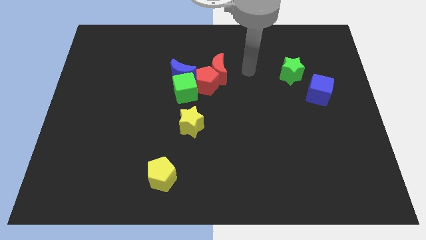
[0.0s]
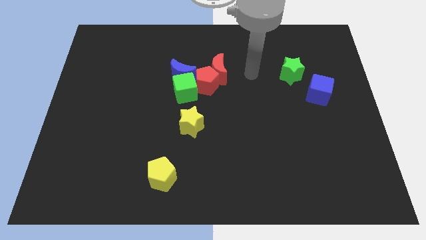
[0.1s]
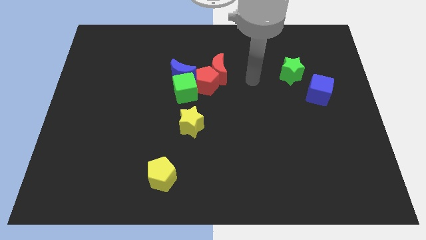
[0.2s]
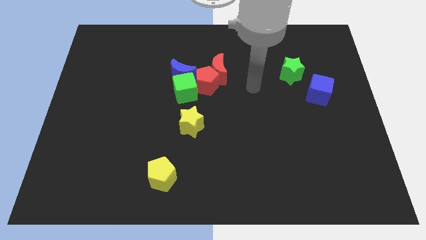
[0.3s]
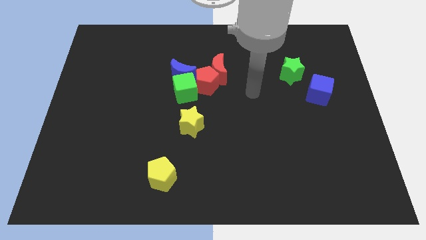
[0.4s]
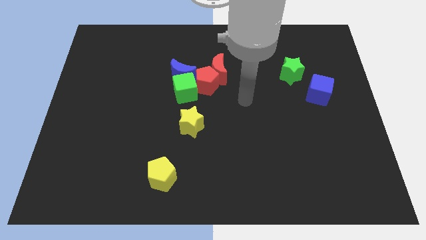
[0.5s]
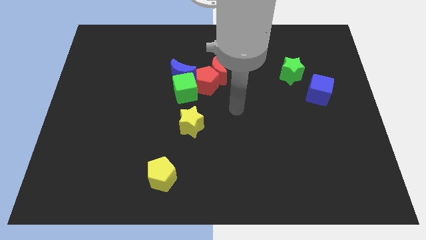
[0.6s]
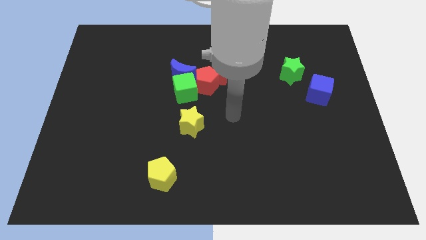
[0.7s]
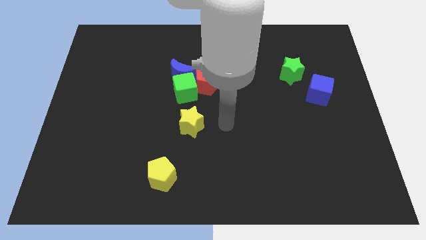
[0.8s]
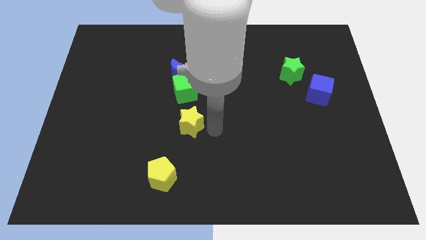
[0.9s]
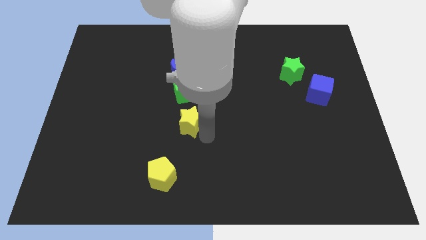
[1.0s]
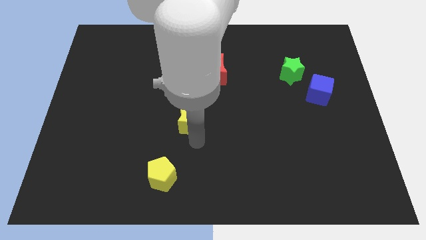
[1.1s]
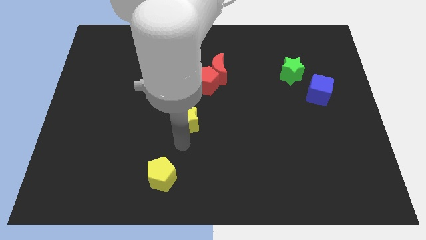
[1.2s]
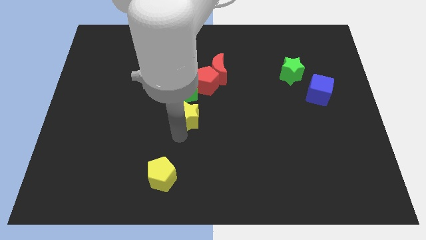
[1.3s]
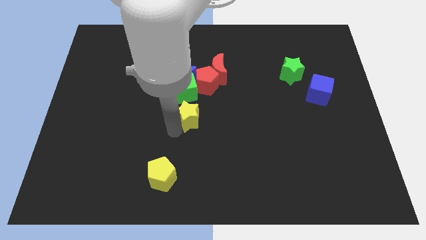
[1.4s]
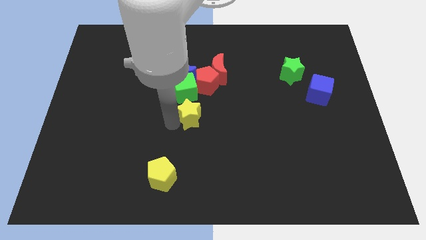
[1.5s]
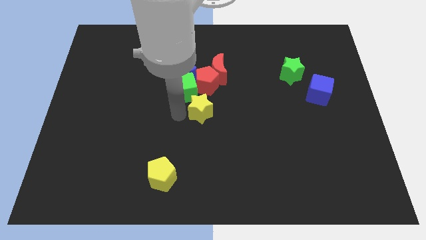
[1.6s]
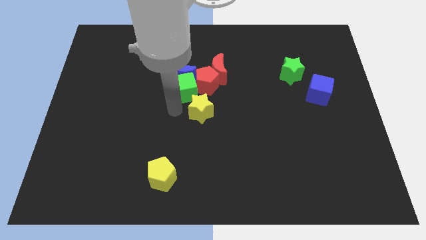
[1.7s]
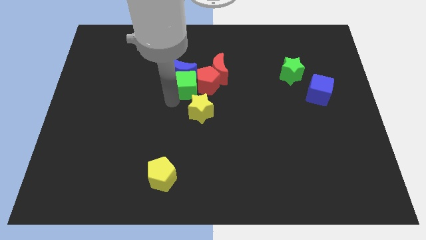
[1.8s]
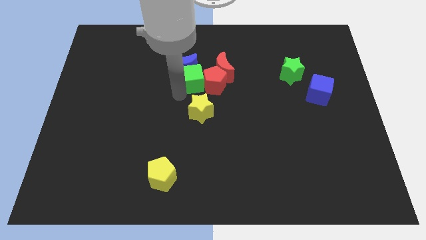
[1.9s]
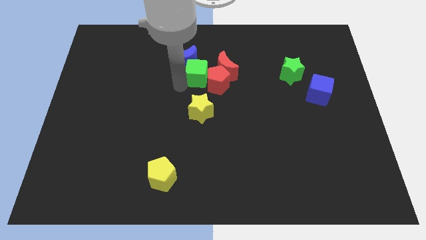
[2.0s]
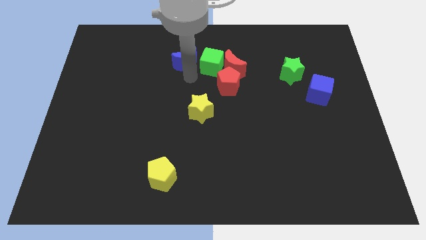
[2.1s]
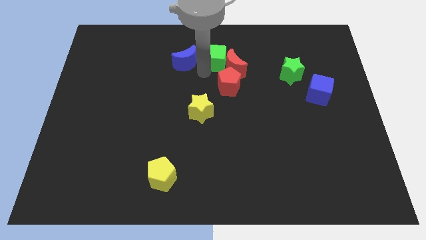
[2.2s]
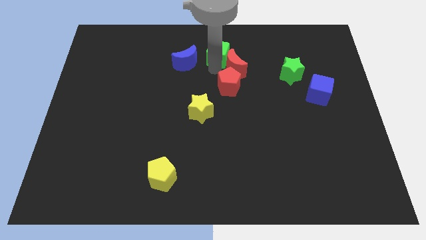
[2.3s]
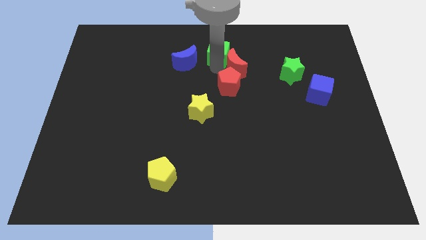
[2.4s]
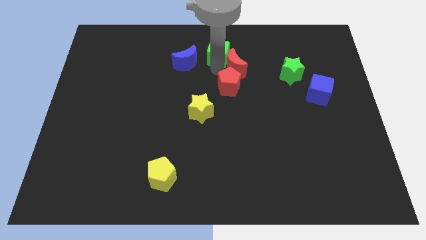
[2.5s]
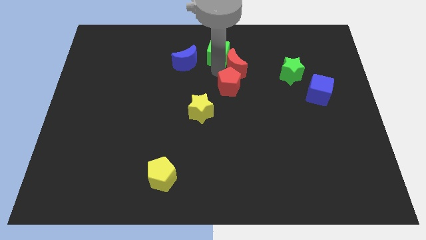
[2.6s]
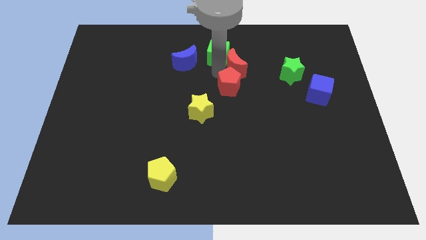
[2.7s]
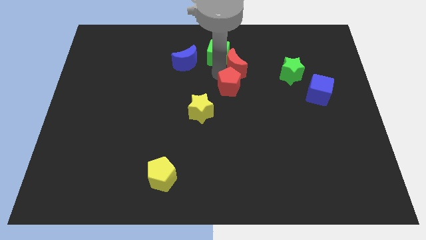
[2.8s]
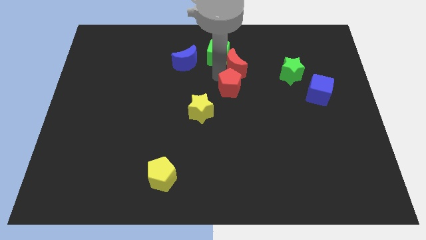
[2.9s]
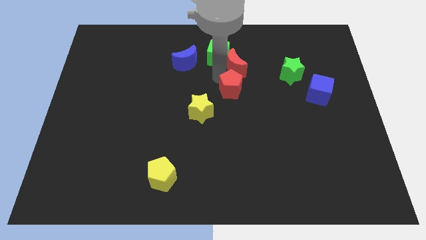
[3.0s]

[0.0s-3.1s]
pull the red pentagon apart from the red moon, green cube, and blue moon

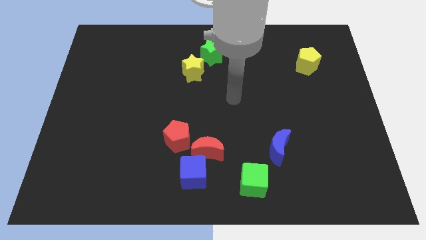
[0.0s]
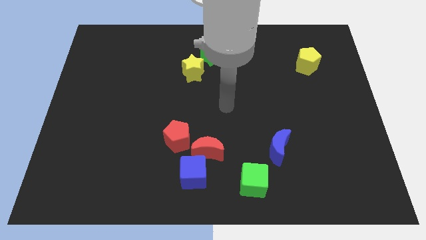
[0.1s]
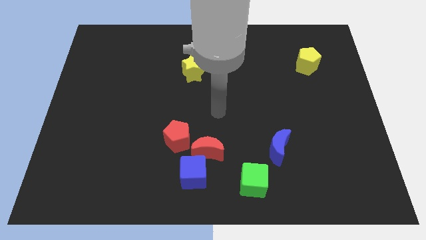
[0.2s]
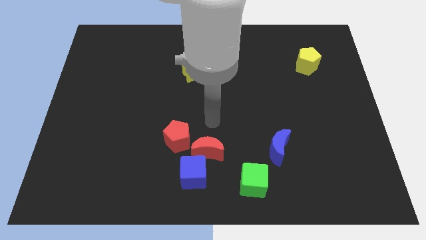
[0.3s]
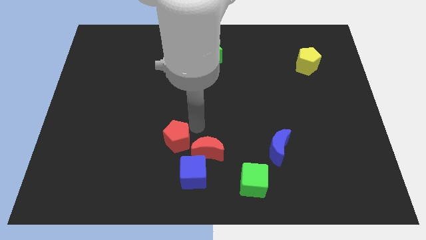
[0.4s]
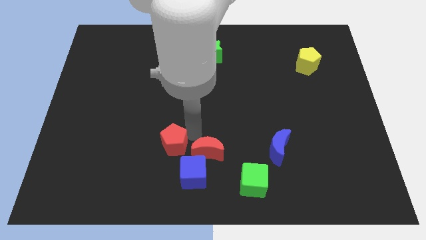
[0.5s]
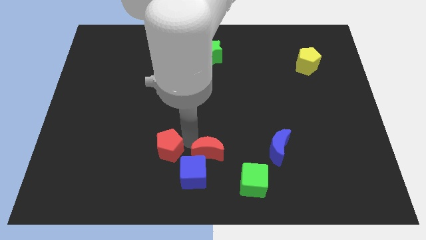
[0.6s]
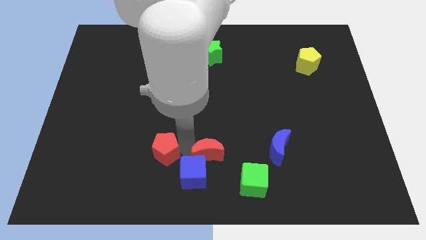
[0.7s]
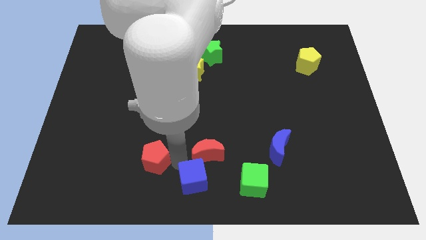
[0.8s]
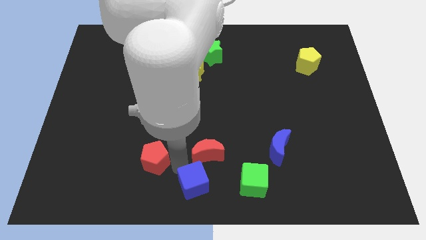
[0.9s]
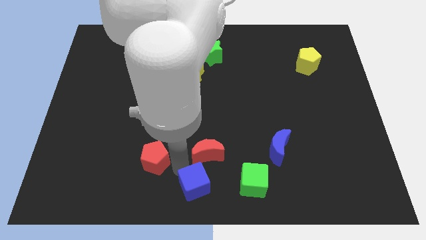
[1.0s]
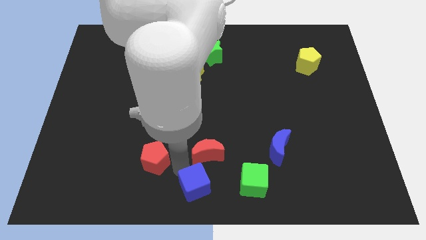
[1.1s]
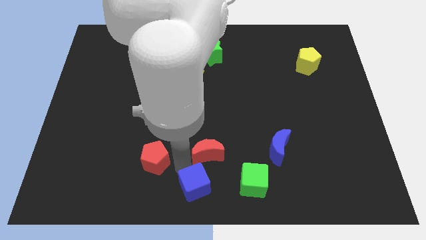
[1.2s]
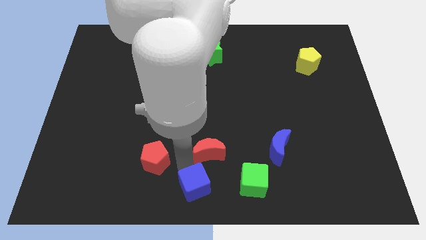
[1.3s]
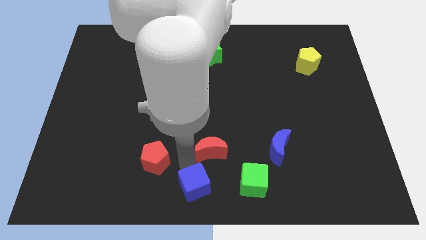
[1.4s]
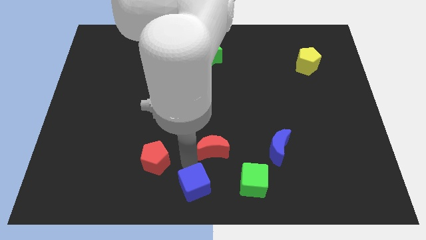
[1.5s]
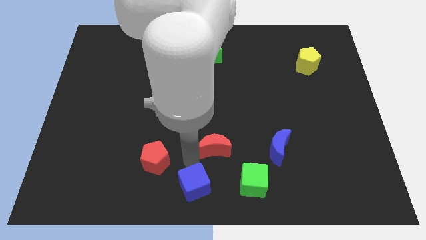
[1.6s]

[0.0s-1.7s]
pull the red moon apart from the blue cube and red pentagon

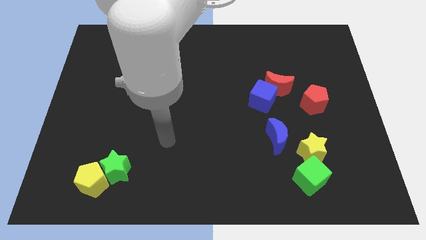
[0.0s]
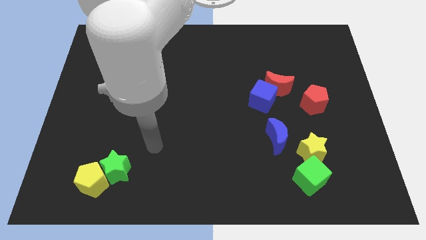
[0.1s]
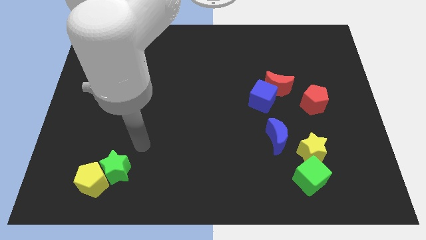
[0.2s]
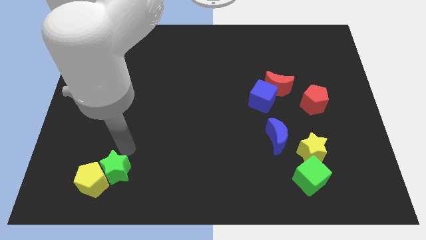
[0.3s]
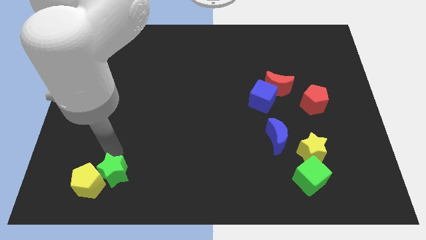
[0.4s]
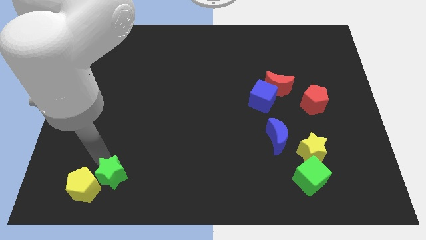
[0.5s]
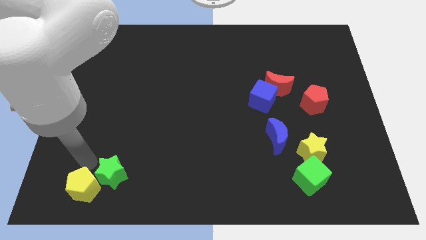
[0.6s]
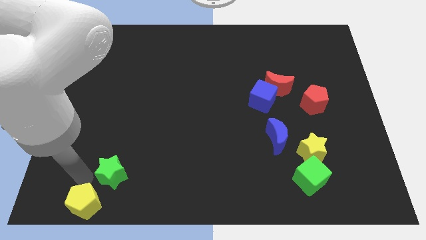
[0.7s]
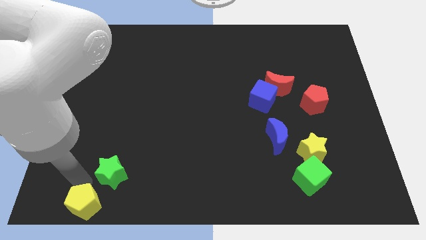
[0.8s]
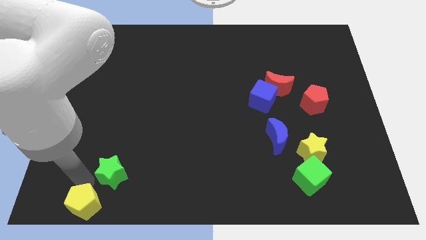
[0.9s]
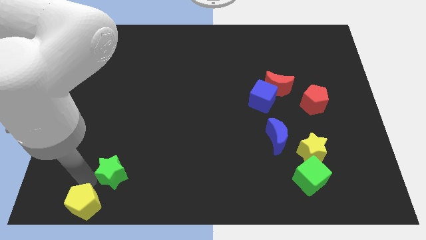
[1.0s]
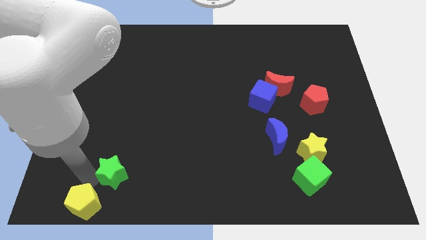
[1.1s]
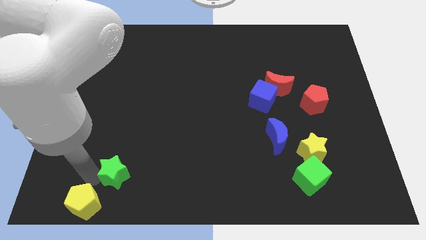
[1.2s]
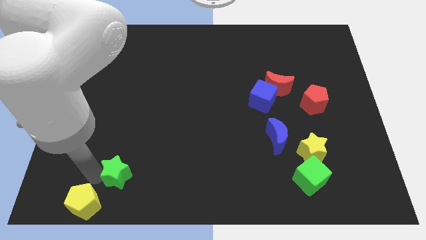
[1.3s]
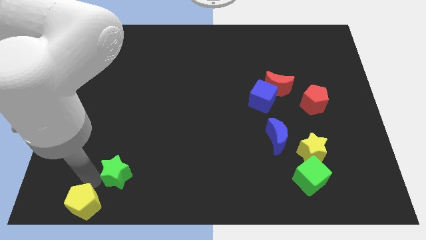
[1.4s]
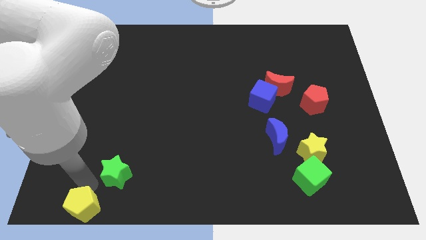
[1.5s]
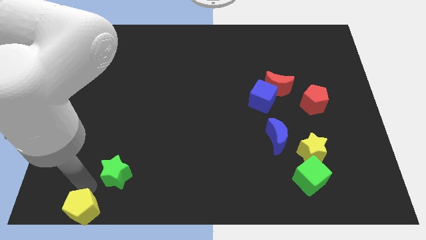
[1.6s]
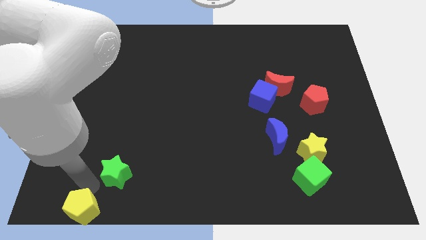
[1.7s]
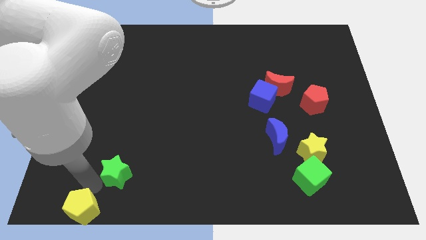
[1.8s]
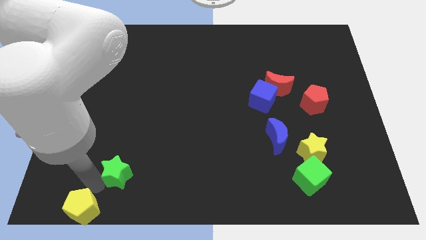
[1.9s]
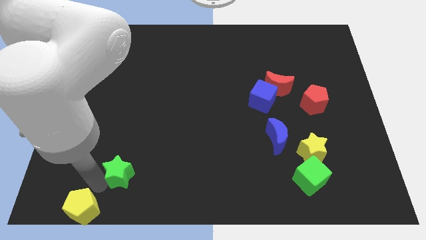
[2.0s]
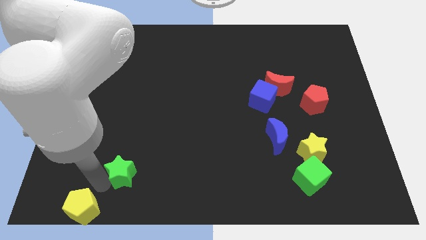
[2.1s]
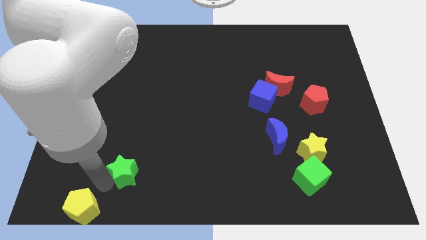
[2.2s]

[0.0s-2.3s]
separate the green star from the yellow pentagon

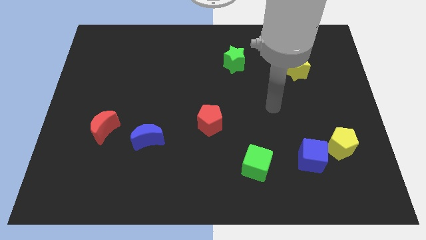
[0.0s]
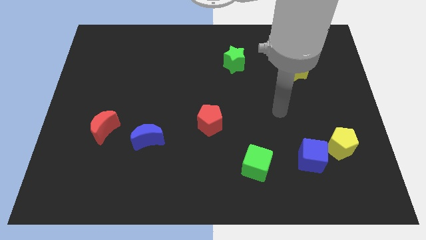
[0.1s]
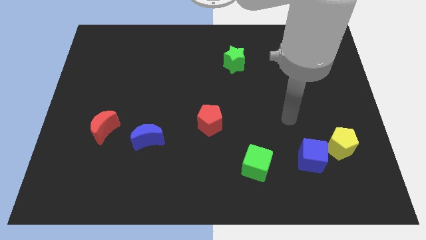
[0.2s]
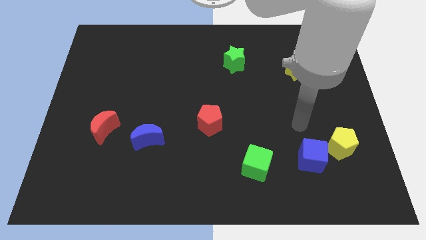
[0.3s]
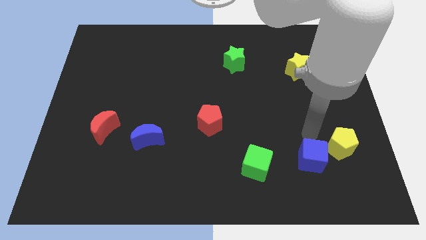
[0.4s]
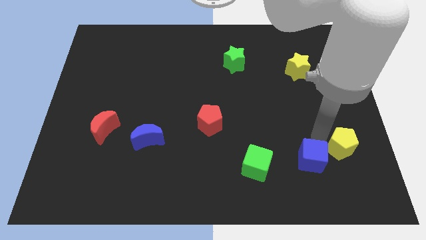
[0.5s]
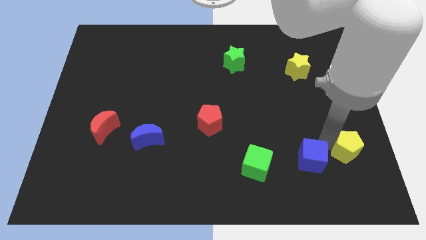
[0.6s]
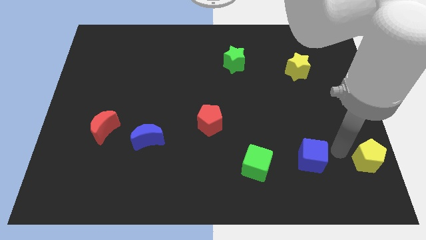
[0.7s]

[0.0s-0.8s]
move the blue cube away from the yellow pentagon

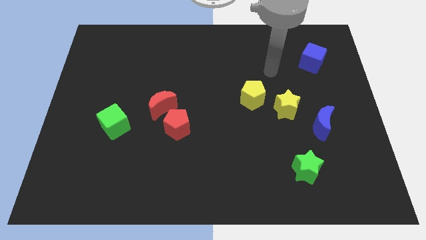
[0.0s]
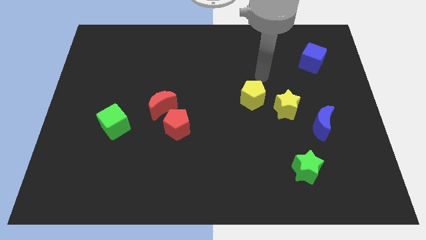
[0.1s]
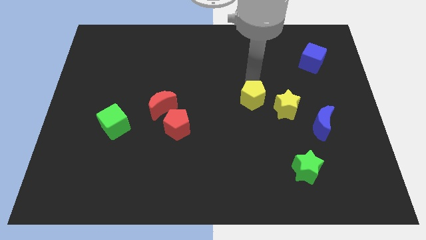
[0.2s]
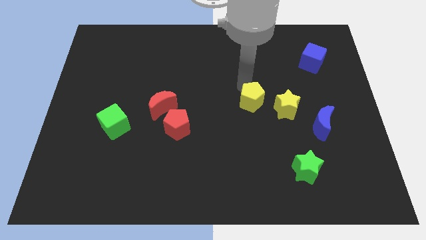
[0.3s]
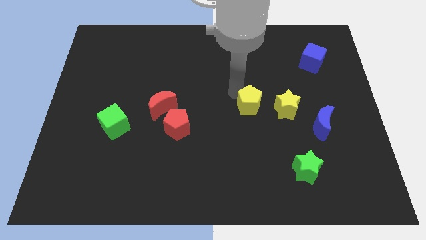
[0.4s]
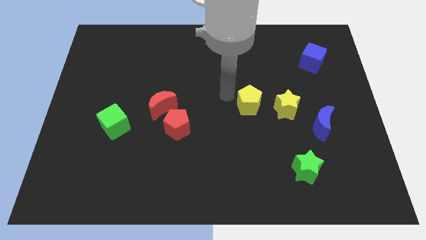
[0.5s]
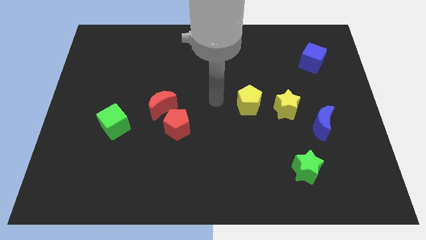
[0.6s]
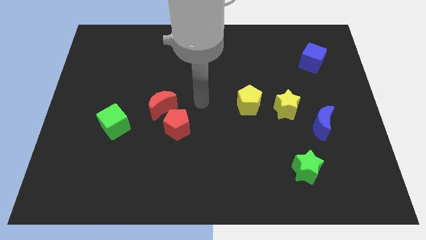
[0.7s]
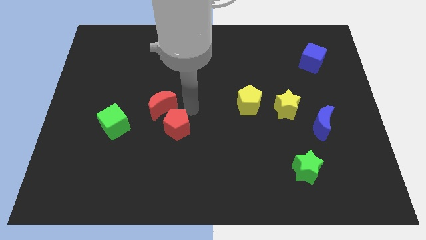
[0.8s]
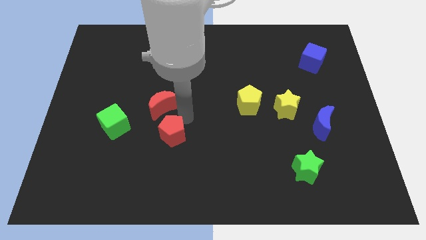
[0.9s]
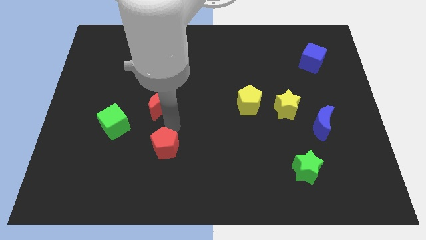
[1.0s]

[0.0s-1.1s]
move the red moon away from the red pentagon

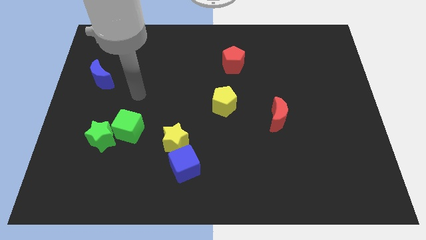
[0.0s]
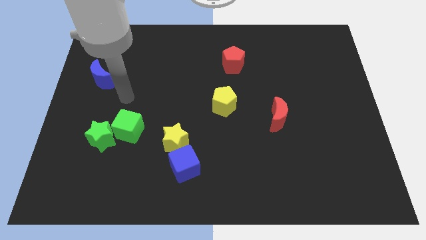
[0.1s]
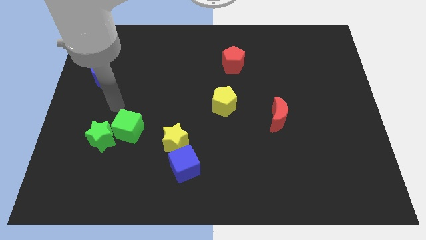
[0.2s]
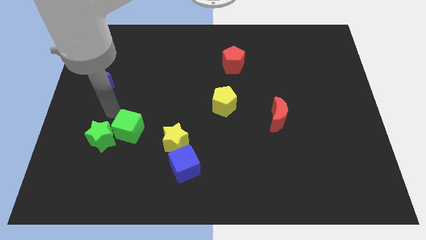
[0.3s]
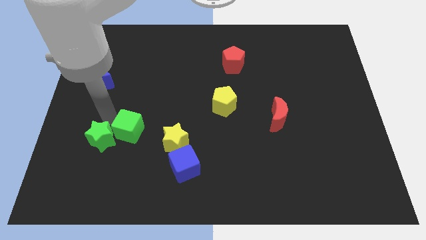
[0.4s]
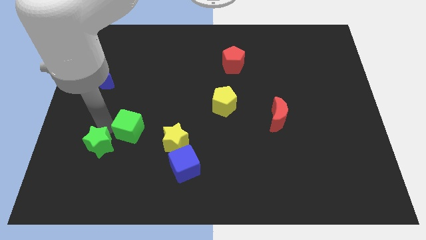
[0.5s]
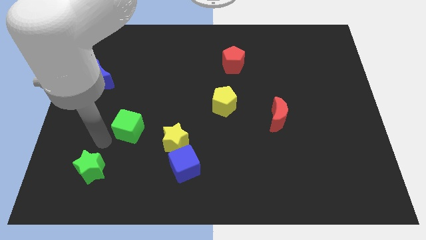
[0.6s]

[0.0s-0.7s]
pull the green cube apart from the green star
